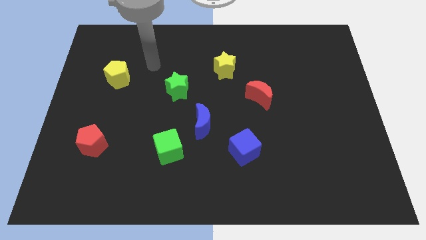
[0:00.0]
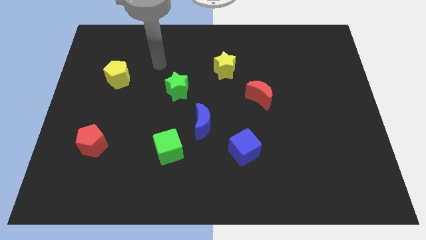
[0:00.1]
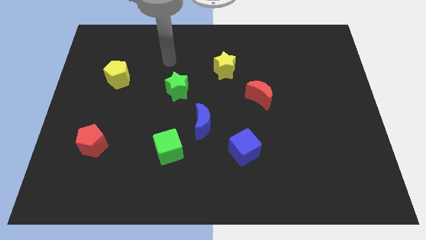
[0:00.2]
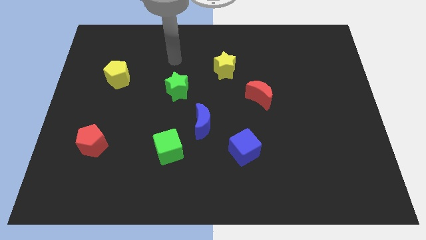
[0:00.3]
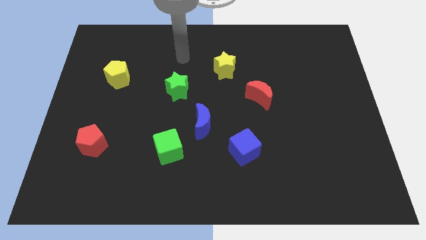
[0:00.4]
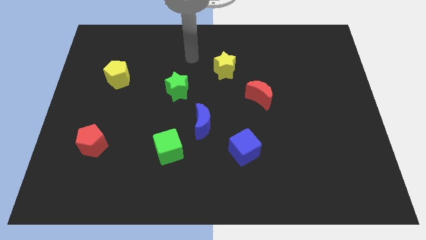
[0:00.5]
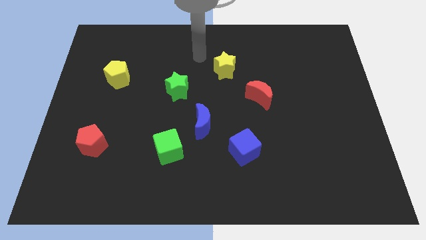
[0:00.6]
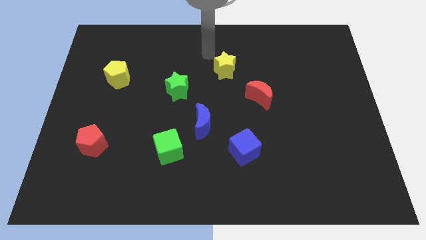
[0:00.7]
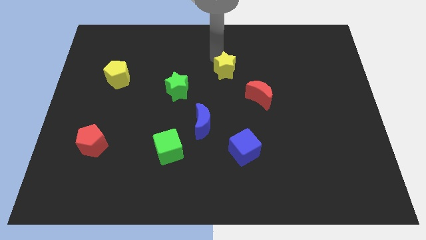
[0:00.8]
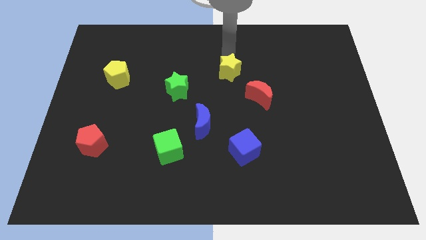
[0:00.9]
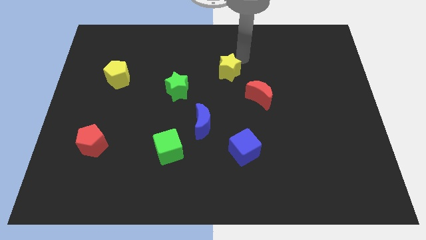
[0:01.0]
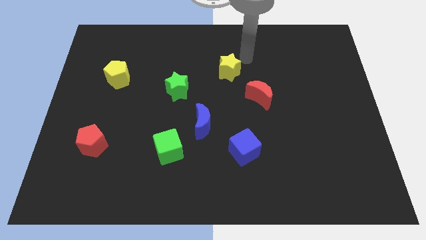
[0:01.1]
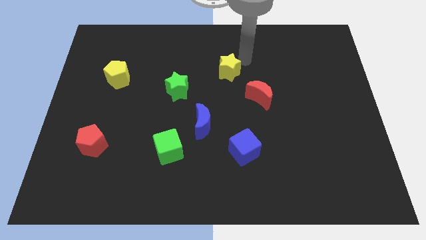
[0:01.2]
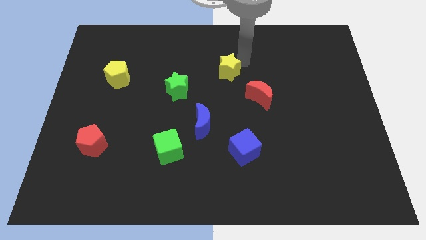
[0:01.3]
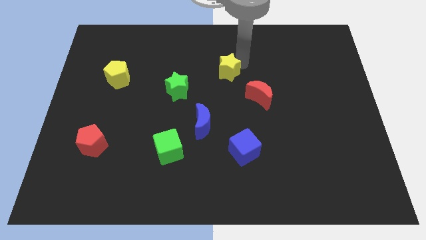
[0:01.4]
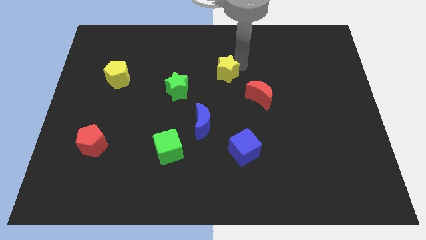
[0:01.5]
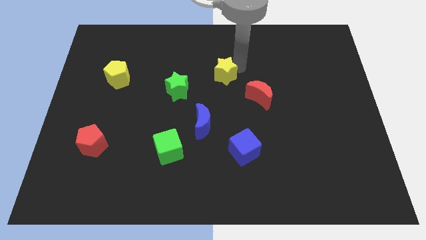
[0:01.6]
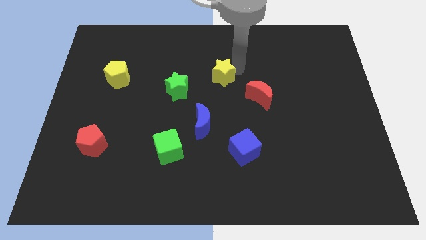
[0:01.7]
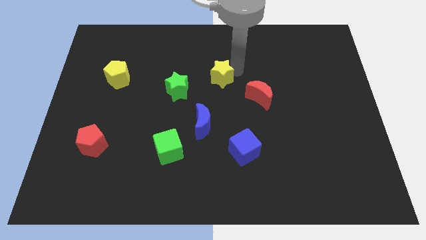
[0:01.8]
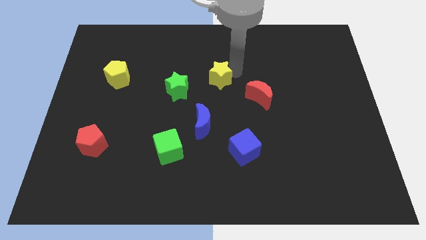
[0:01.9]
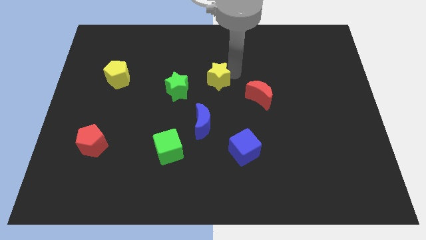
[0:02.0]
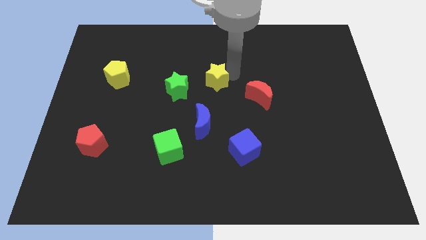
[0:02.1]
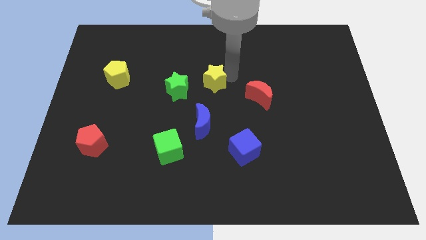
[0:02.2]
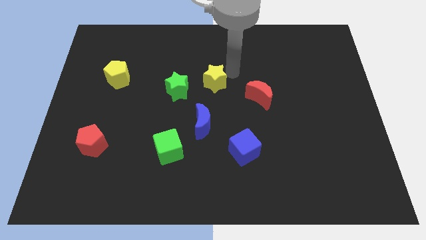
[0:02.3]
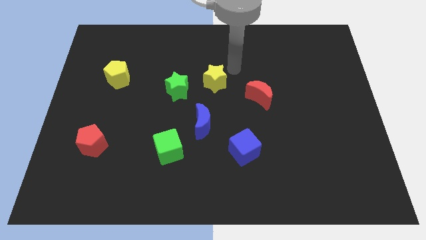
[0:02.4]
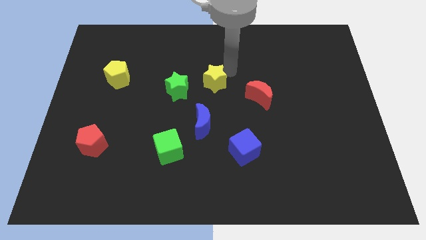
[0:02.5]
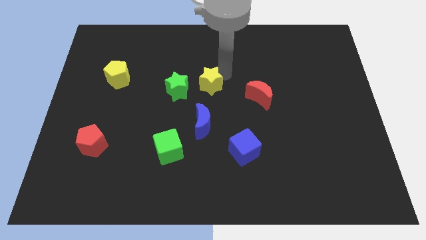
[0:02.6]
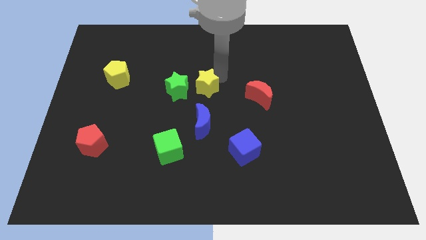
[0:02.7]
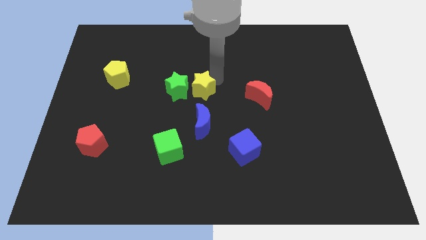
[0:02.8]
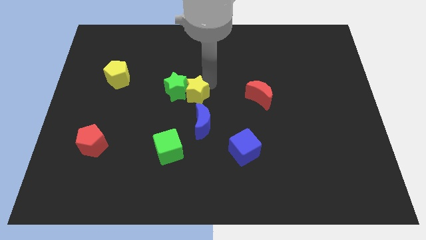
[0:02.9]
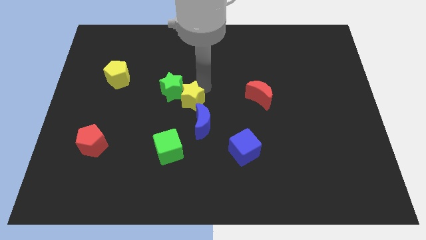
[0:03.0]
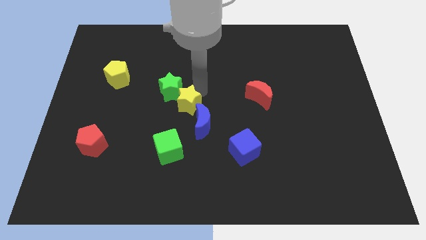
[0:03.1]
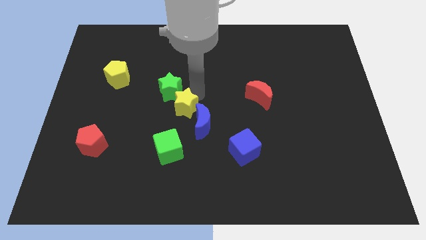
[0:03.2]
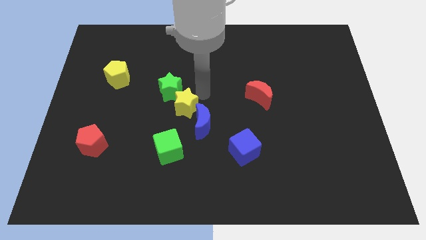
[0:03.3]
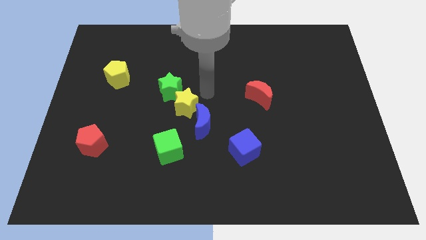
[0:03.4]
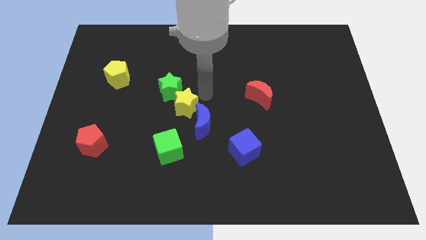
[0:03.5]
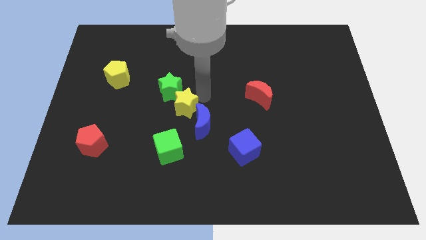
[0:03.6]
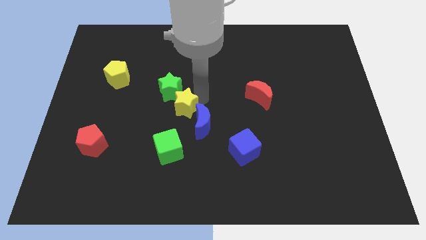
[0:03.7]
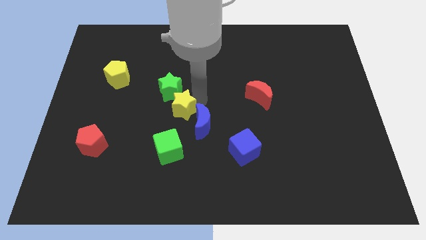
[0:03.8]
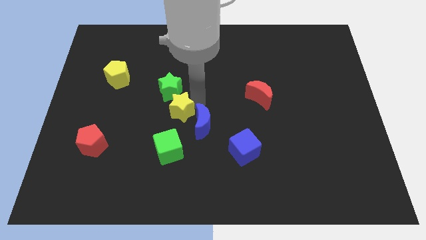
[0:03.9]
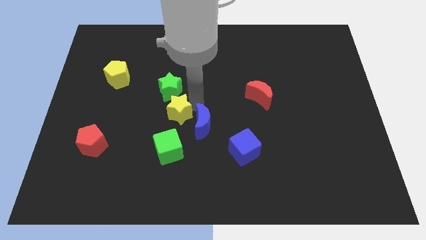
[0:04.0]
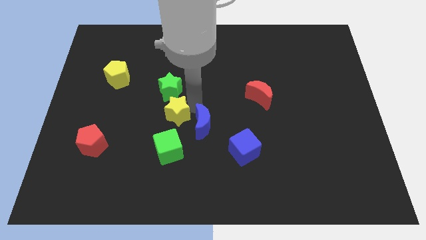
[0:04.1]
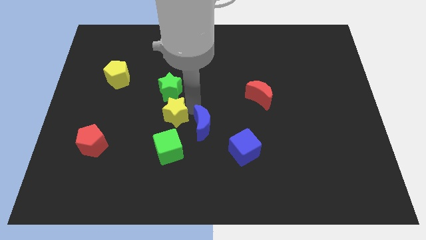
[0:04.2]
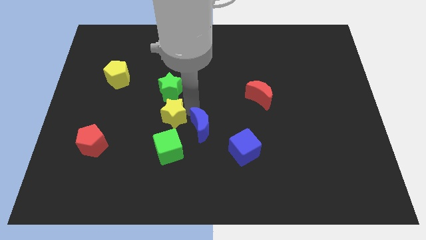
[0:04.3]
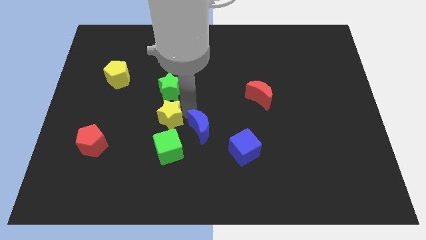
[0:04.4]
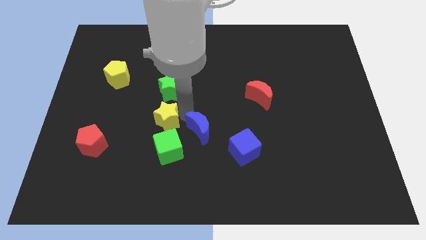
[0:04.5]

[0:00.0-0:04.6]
slide the yellow star downwards and left

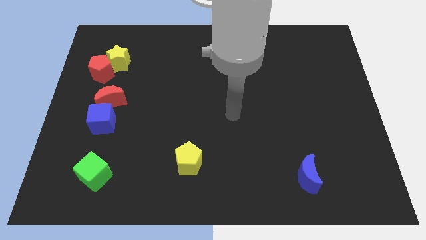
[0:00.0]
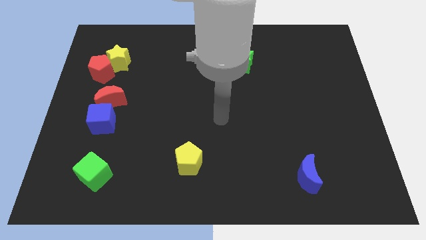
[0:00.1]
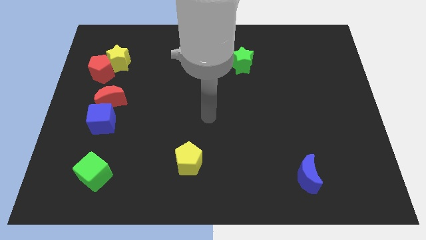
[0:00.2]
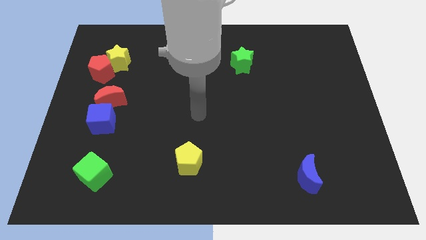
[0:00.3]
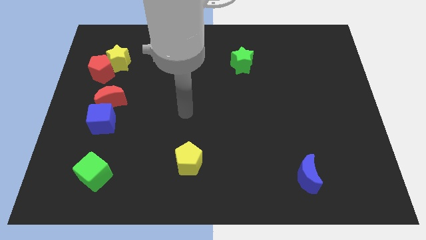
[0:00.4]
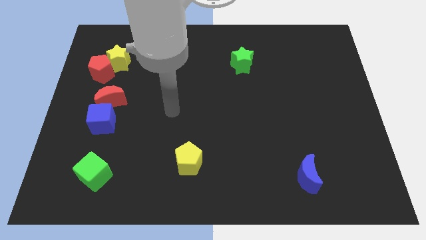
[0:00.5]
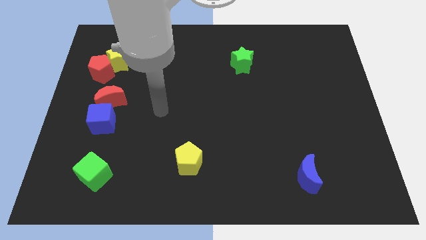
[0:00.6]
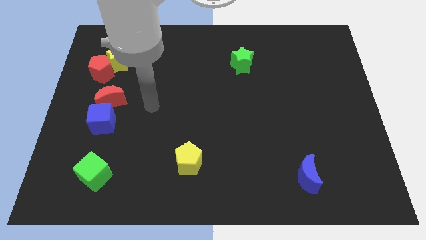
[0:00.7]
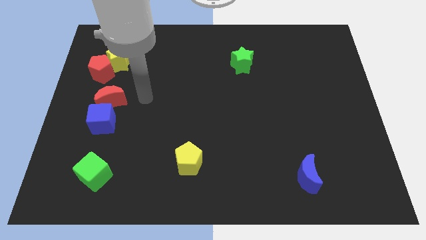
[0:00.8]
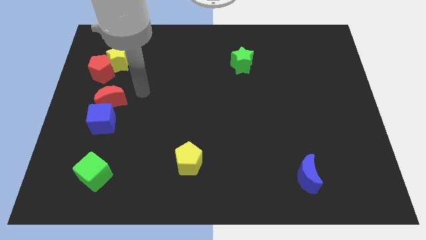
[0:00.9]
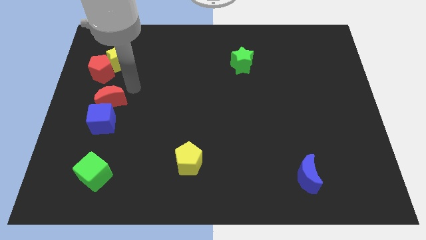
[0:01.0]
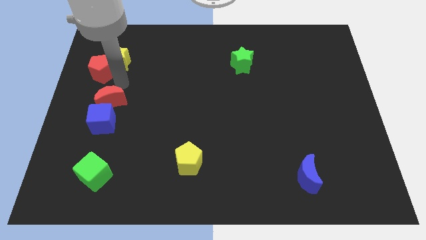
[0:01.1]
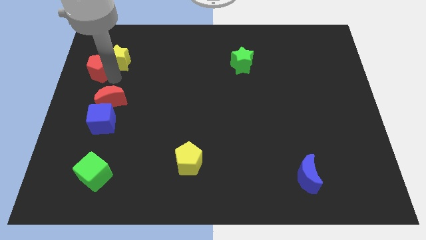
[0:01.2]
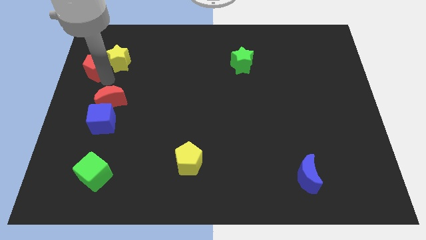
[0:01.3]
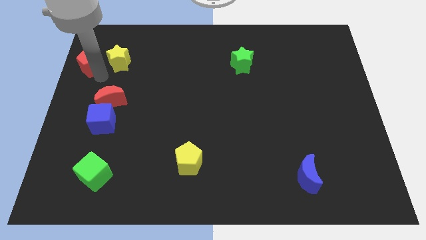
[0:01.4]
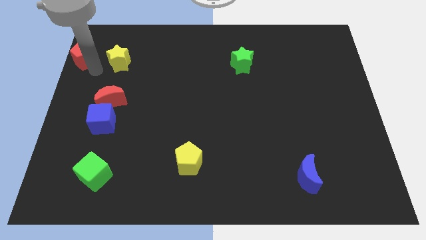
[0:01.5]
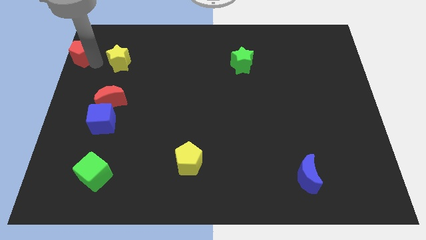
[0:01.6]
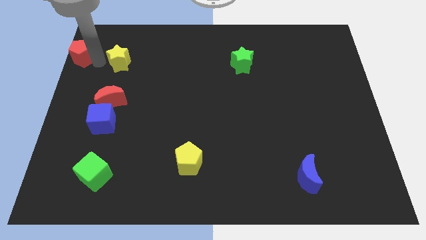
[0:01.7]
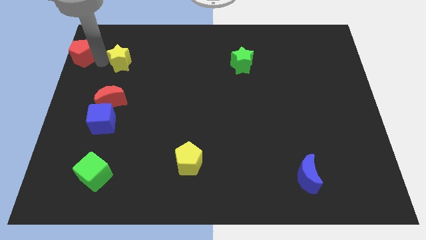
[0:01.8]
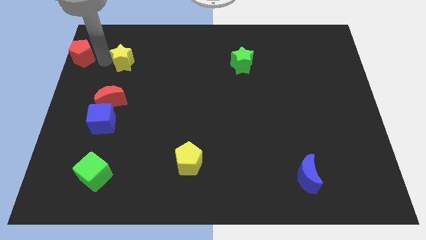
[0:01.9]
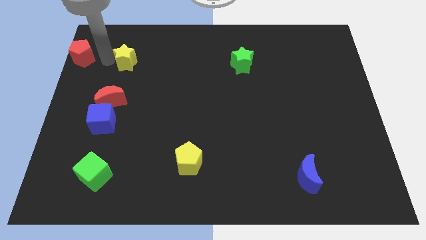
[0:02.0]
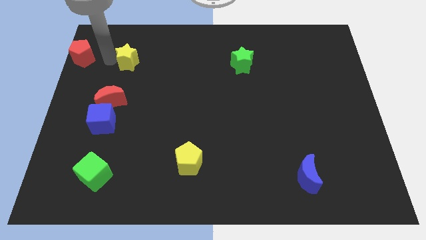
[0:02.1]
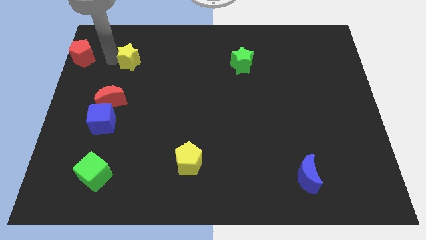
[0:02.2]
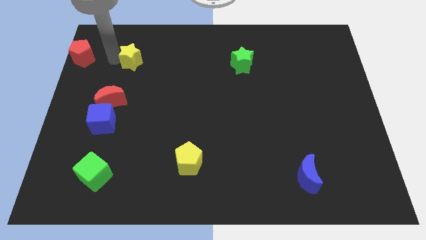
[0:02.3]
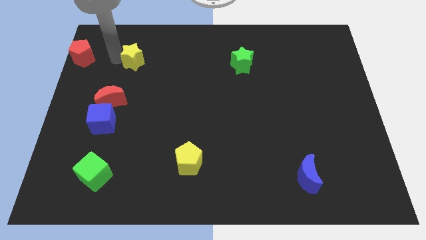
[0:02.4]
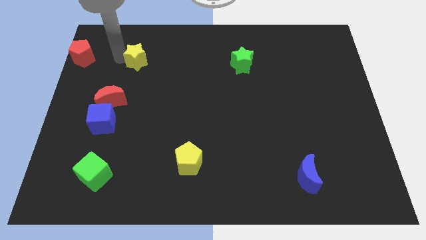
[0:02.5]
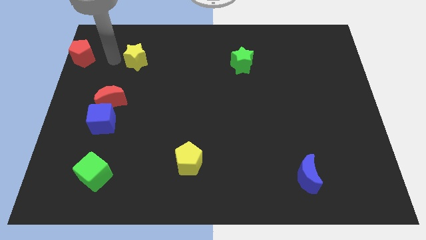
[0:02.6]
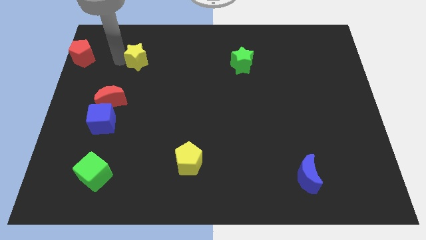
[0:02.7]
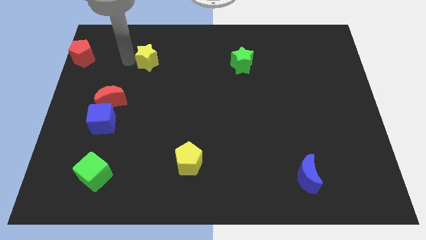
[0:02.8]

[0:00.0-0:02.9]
slightly push the yellow star to the right

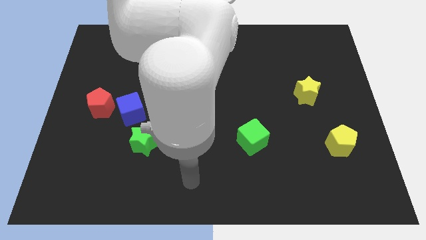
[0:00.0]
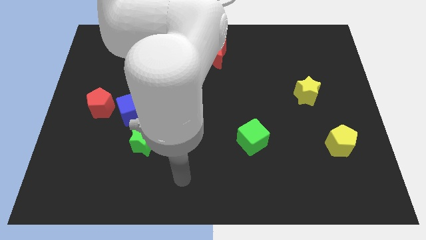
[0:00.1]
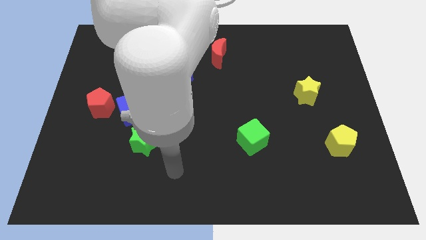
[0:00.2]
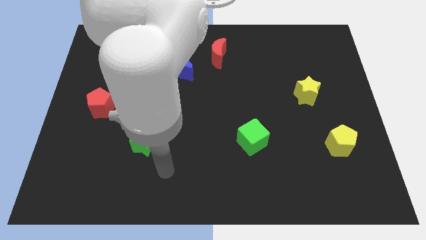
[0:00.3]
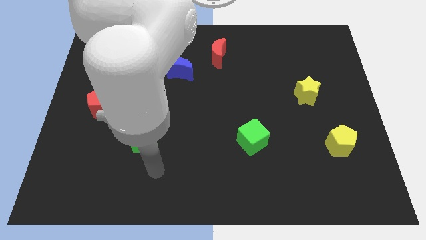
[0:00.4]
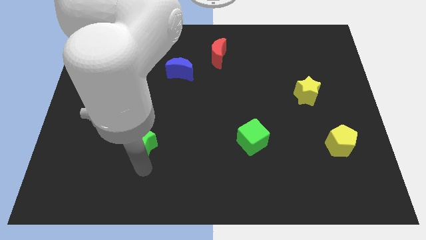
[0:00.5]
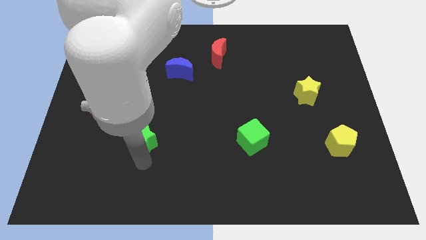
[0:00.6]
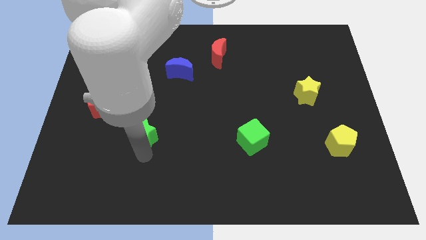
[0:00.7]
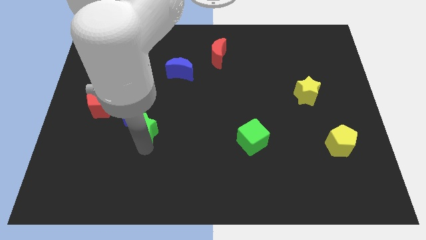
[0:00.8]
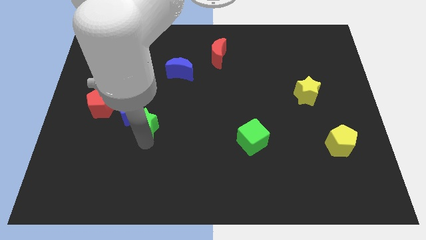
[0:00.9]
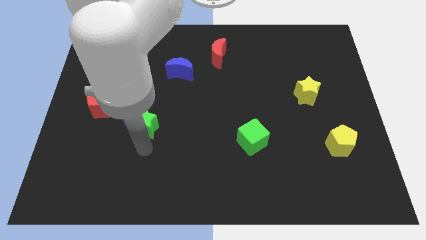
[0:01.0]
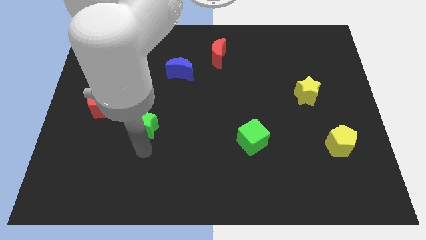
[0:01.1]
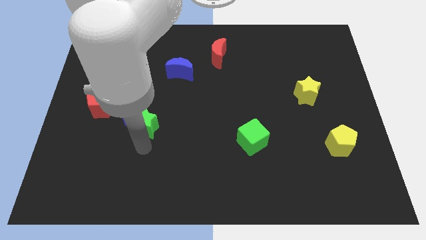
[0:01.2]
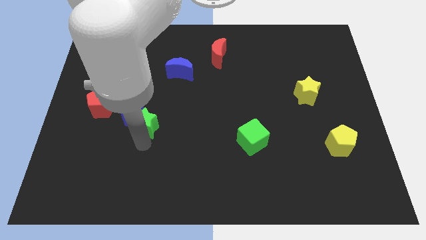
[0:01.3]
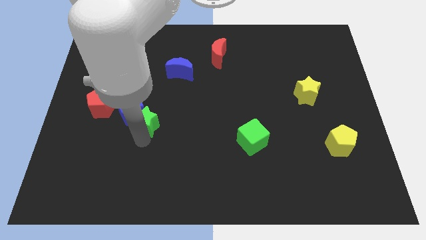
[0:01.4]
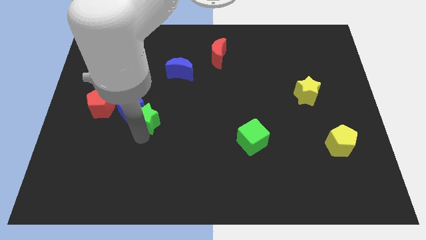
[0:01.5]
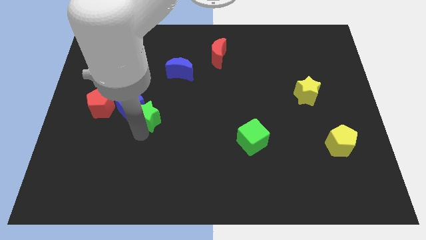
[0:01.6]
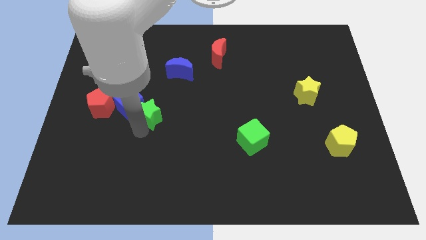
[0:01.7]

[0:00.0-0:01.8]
move the green star somewhat upwards
